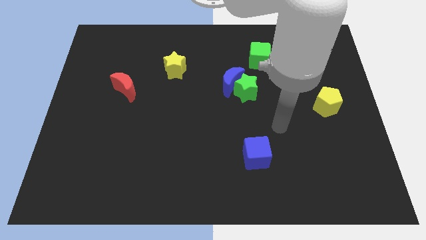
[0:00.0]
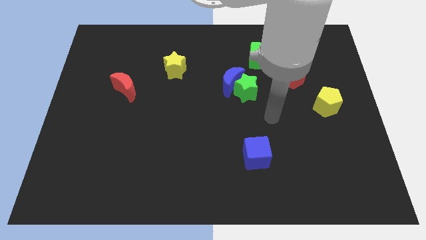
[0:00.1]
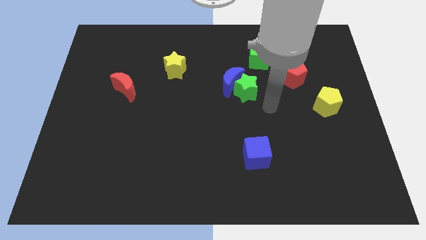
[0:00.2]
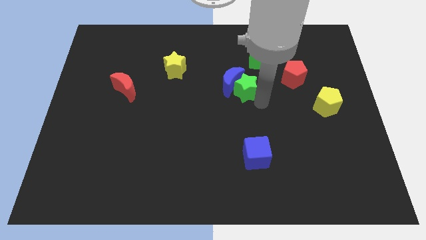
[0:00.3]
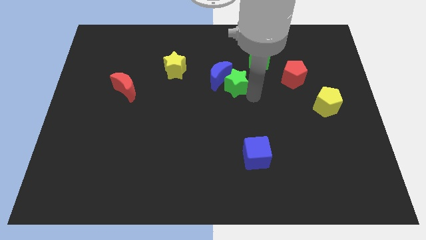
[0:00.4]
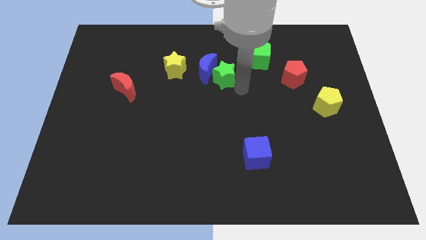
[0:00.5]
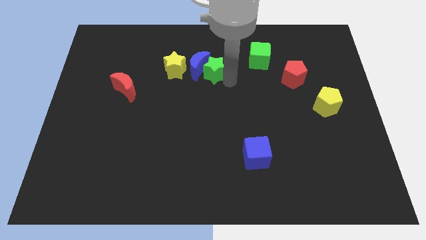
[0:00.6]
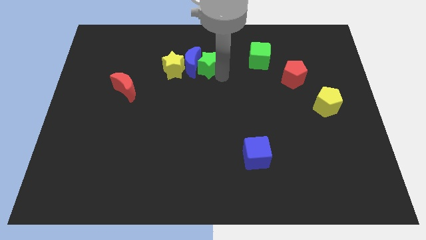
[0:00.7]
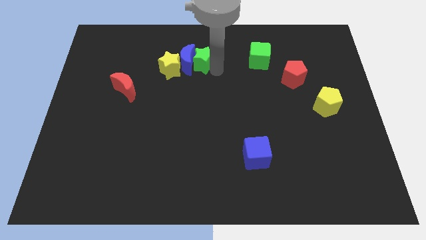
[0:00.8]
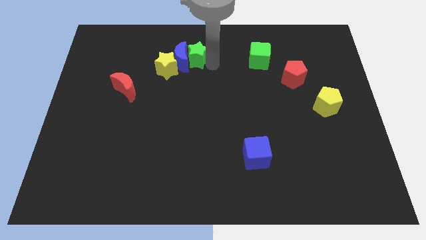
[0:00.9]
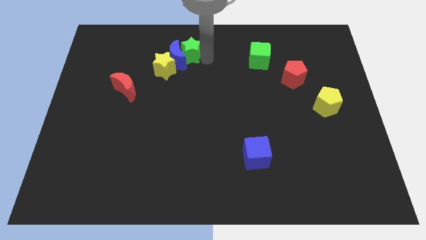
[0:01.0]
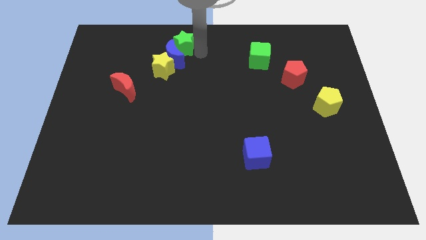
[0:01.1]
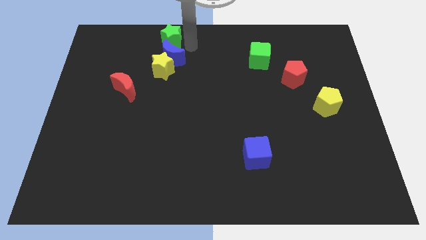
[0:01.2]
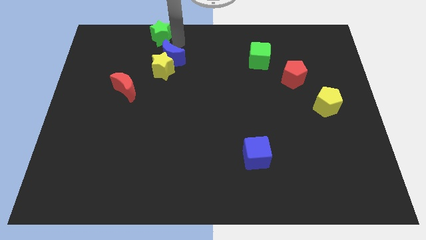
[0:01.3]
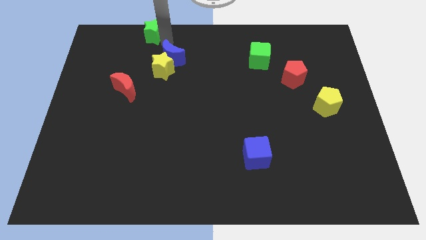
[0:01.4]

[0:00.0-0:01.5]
separate the blue moon from the green star

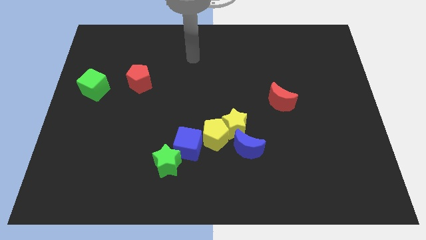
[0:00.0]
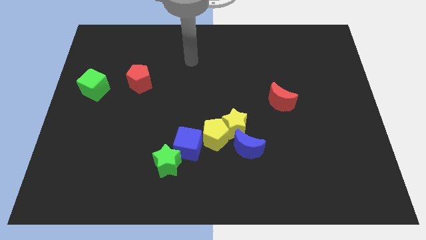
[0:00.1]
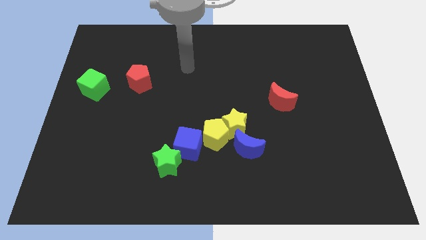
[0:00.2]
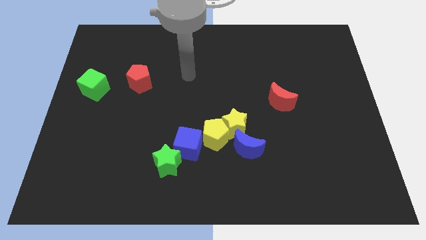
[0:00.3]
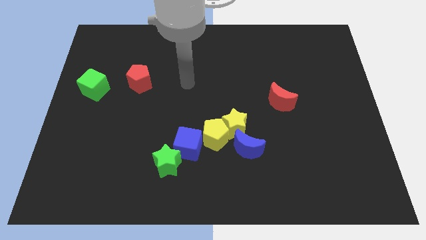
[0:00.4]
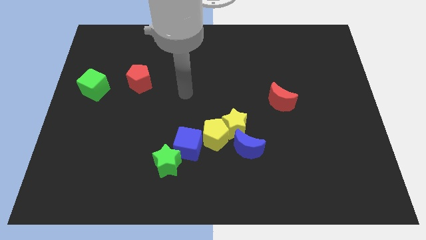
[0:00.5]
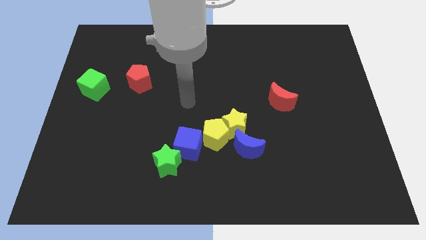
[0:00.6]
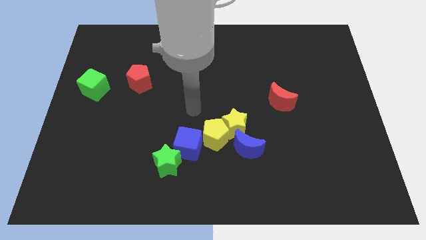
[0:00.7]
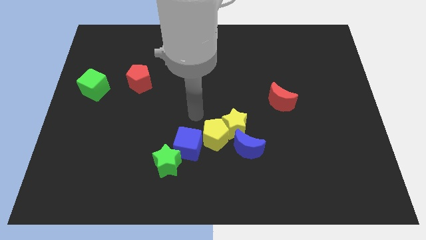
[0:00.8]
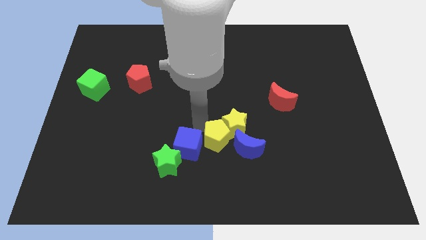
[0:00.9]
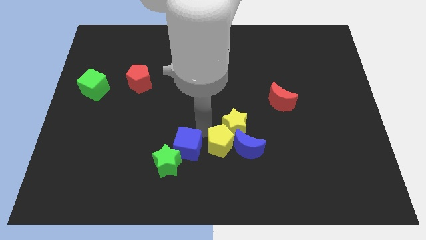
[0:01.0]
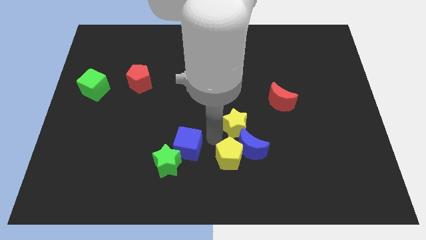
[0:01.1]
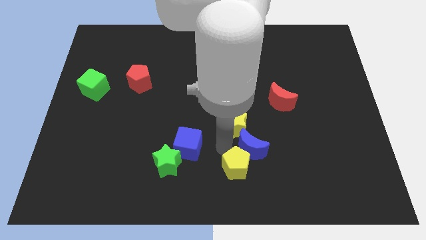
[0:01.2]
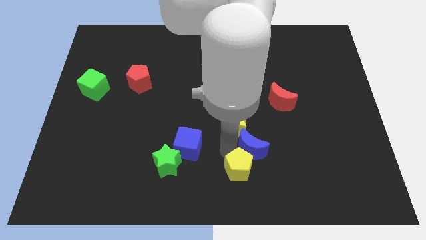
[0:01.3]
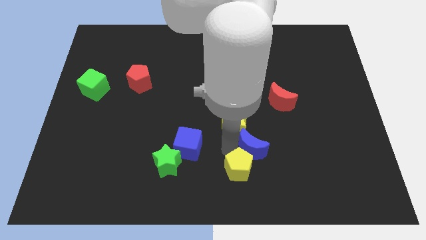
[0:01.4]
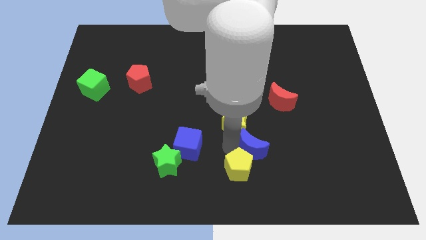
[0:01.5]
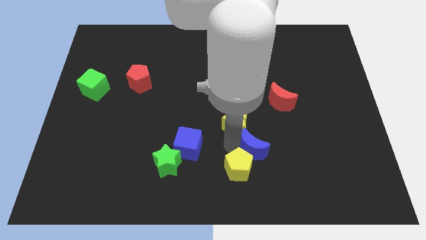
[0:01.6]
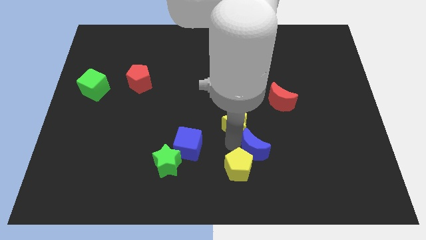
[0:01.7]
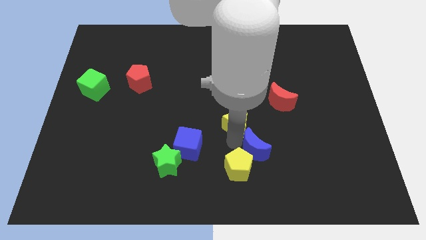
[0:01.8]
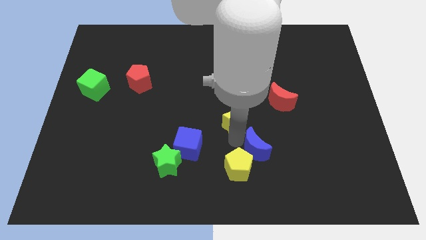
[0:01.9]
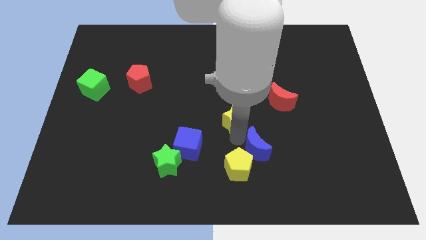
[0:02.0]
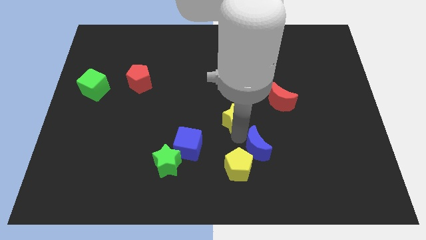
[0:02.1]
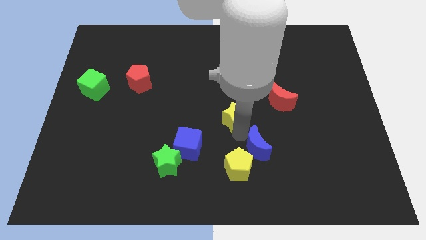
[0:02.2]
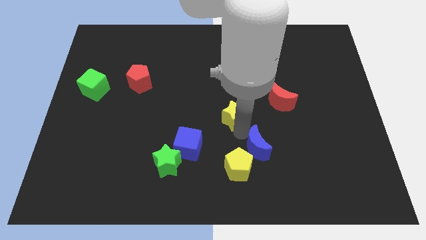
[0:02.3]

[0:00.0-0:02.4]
separate the yellow star from the yellow pentagon and blue moon

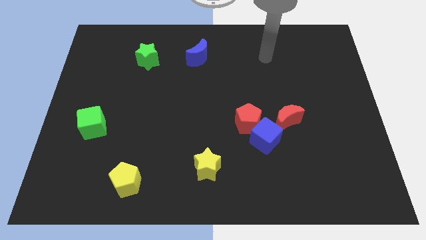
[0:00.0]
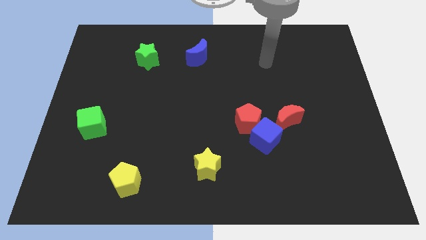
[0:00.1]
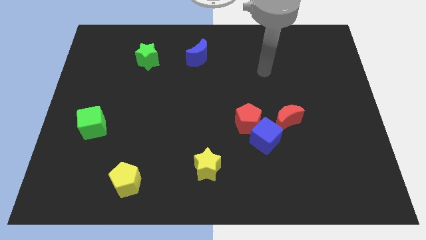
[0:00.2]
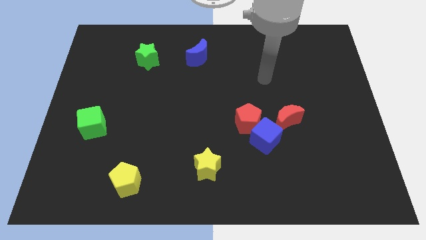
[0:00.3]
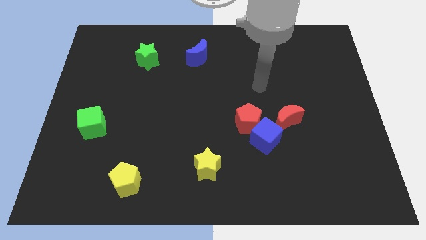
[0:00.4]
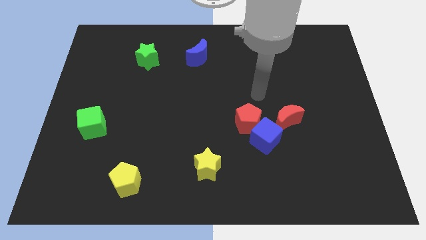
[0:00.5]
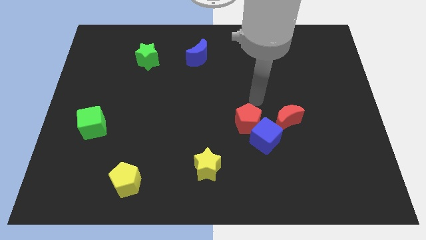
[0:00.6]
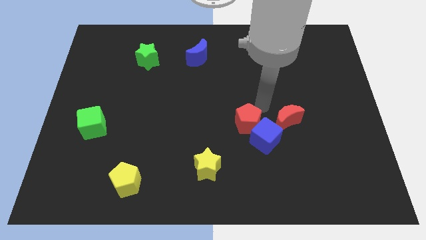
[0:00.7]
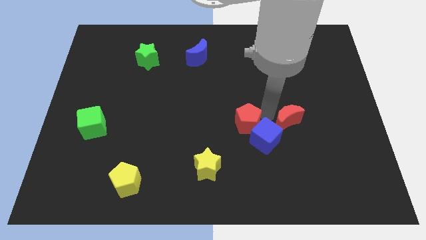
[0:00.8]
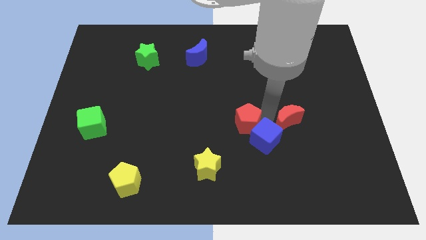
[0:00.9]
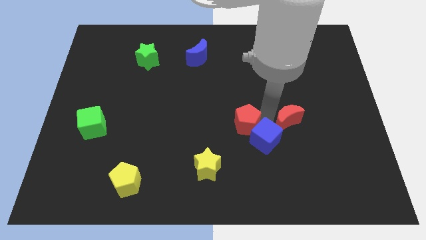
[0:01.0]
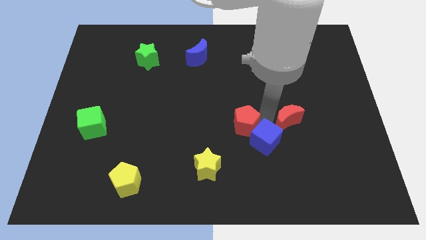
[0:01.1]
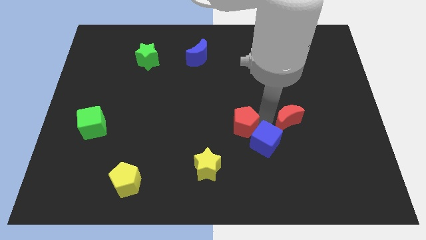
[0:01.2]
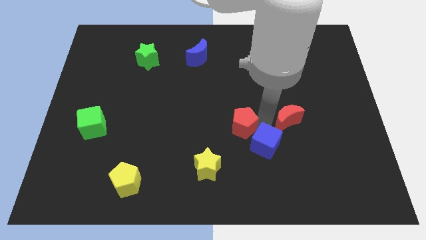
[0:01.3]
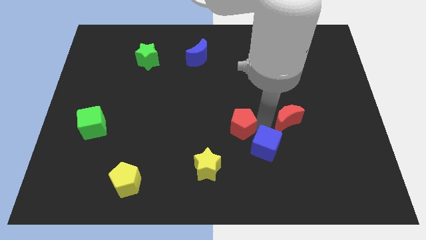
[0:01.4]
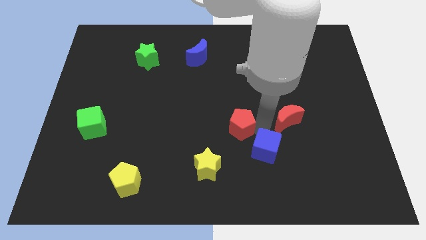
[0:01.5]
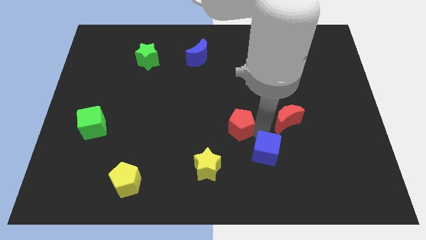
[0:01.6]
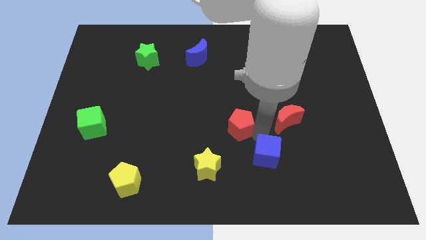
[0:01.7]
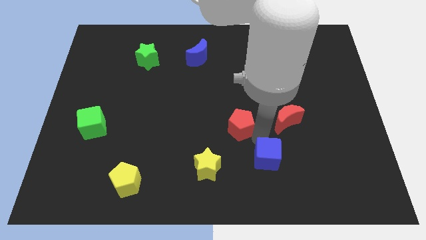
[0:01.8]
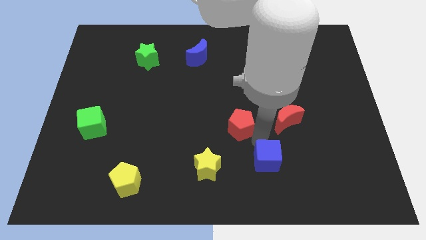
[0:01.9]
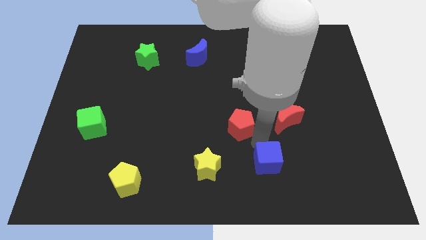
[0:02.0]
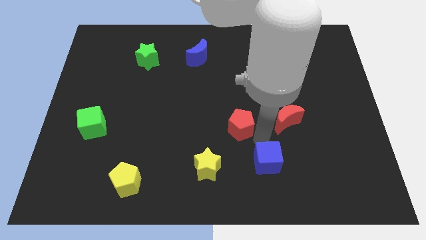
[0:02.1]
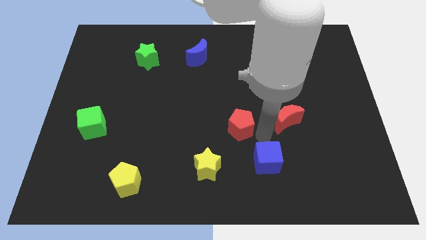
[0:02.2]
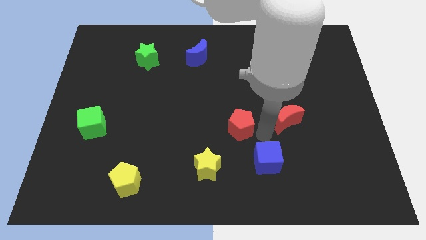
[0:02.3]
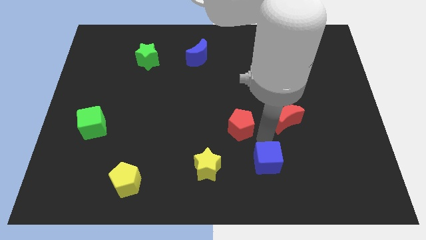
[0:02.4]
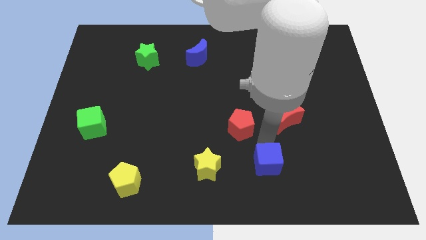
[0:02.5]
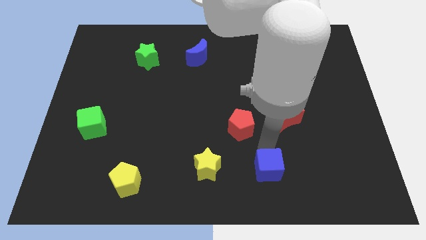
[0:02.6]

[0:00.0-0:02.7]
separate the blue cube from the red pentagon and red moon

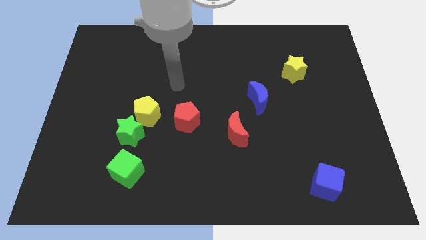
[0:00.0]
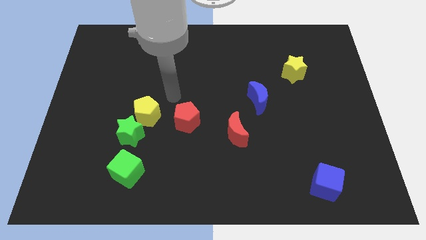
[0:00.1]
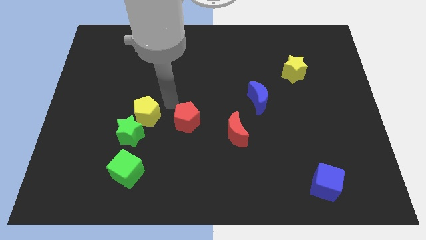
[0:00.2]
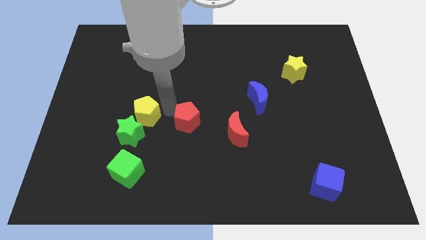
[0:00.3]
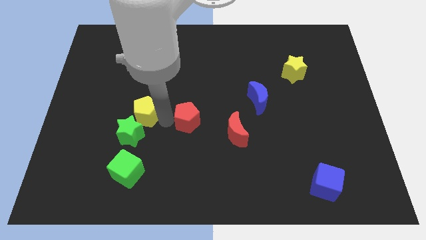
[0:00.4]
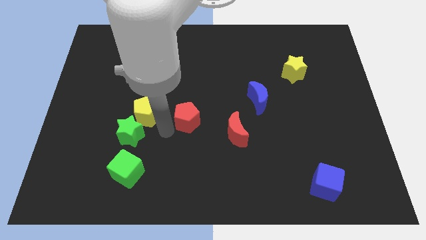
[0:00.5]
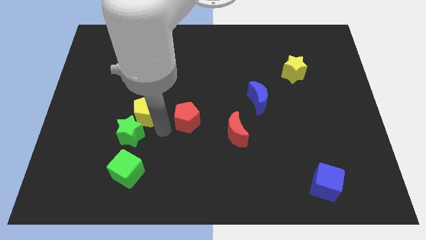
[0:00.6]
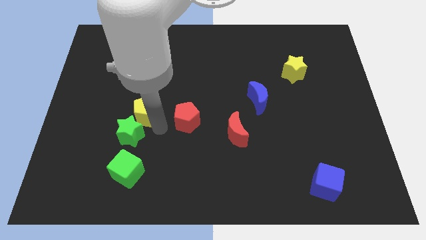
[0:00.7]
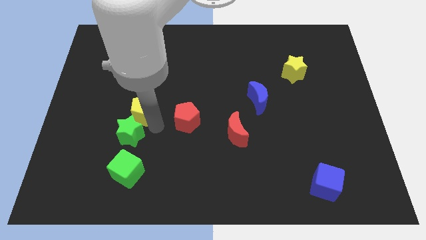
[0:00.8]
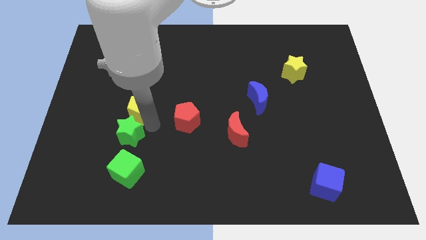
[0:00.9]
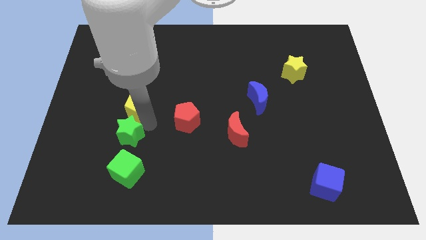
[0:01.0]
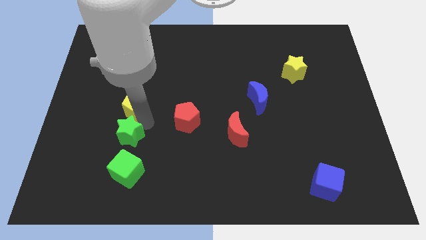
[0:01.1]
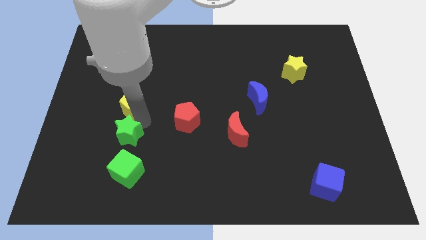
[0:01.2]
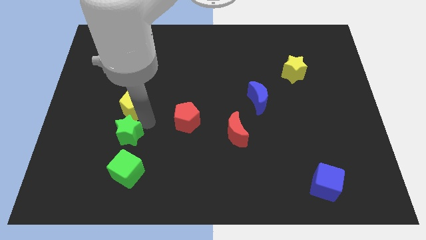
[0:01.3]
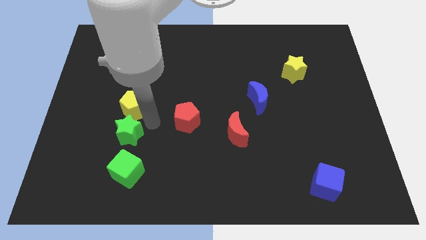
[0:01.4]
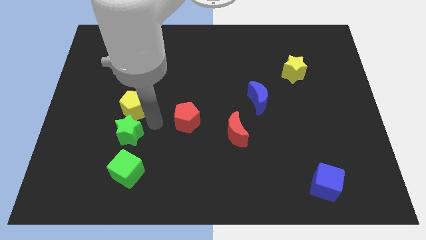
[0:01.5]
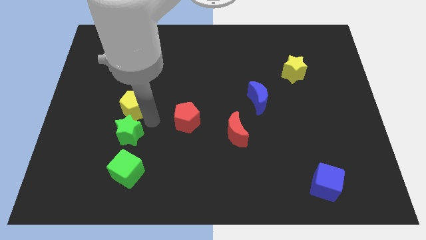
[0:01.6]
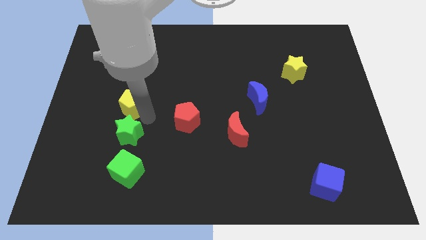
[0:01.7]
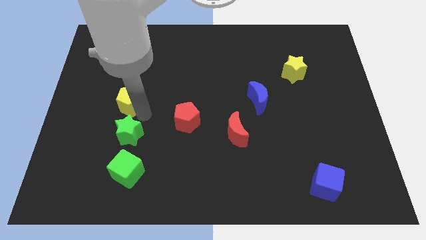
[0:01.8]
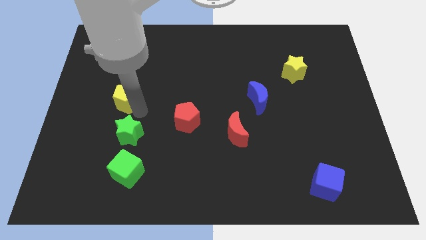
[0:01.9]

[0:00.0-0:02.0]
separate the yellow pentagon from the green star and red pentagon

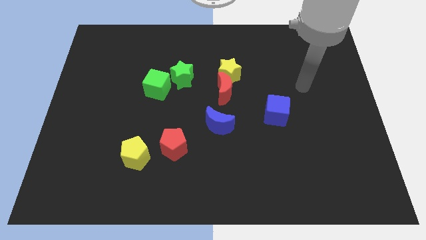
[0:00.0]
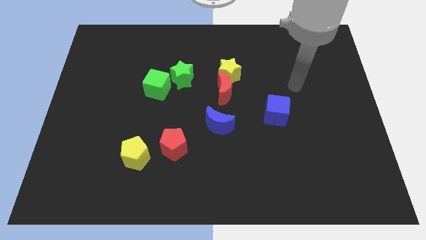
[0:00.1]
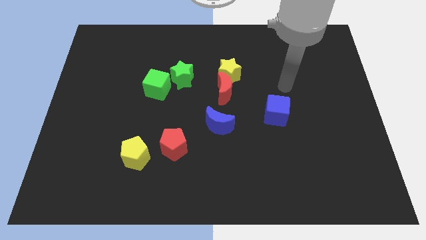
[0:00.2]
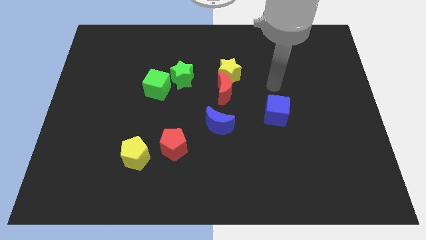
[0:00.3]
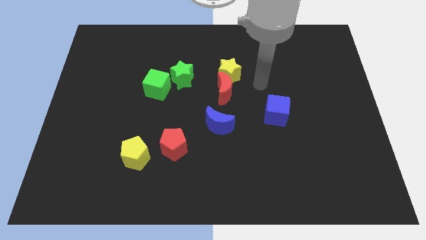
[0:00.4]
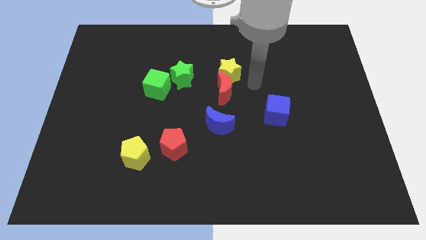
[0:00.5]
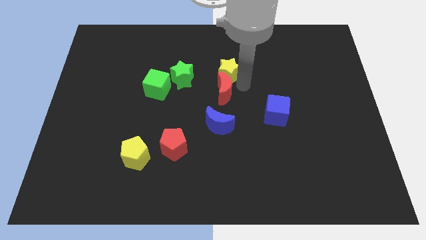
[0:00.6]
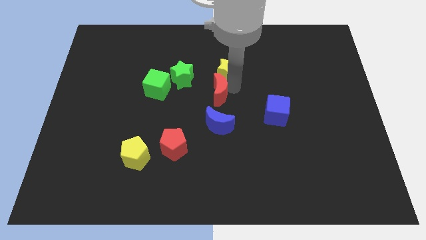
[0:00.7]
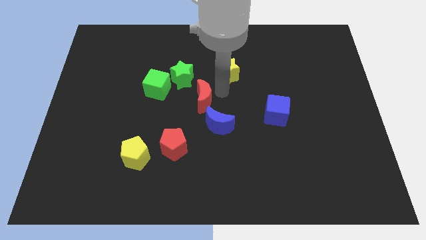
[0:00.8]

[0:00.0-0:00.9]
separate the yellow star from the red moon

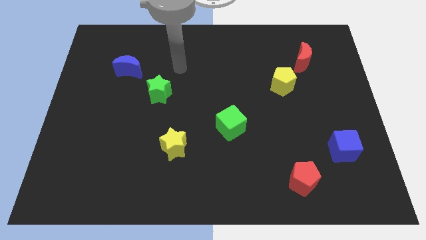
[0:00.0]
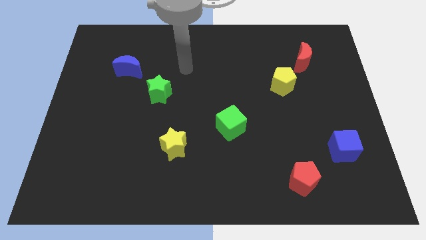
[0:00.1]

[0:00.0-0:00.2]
separate the red moon from the yellow pentagon
